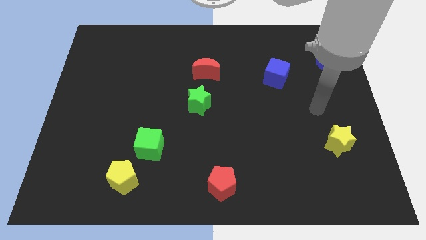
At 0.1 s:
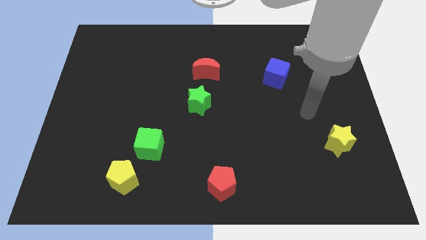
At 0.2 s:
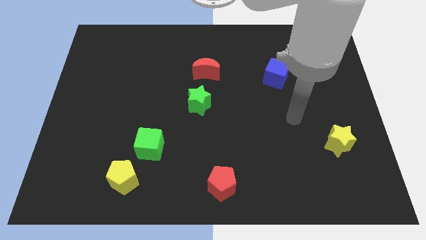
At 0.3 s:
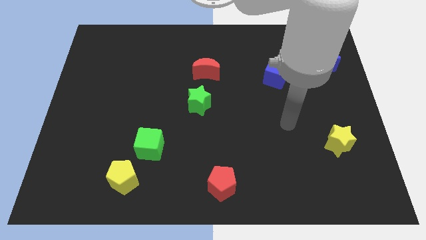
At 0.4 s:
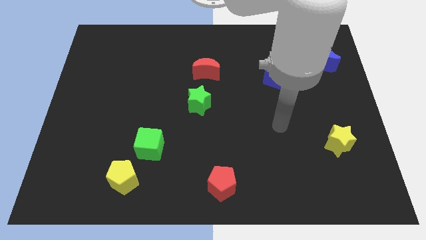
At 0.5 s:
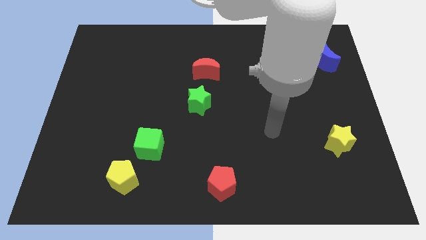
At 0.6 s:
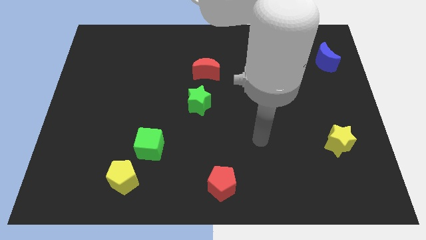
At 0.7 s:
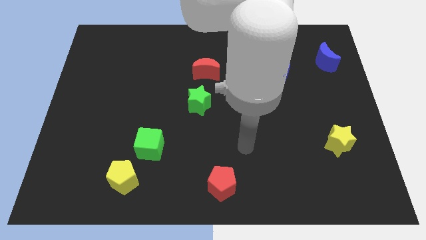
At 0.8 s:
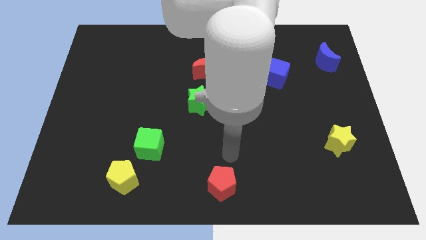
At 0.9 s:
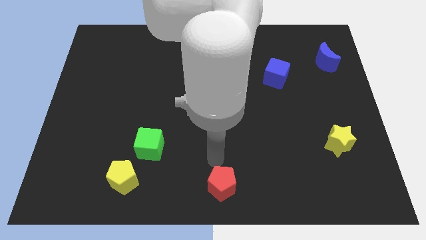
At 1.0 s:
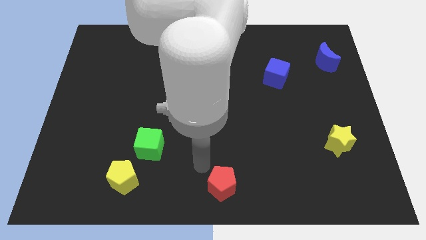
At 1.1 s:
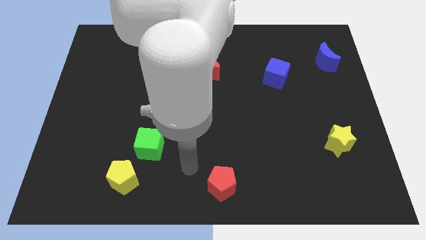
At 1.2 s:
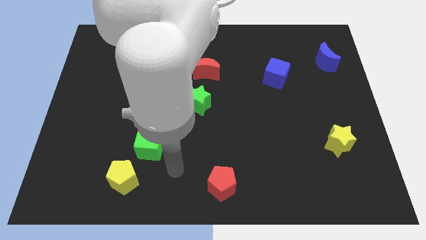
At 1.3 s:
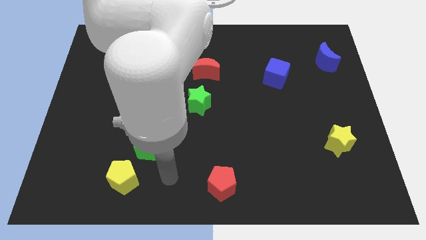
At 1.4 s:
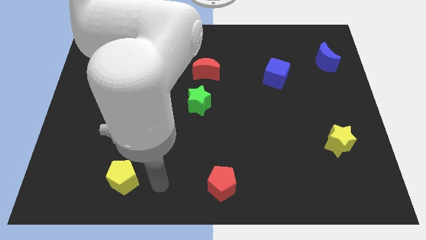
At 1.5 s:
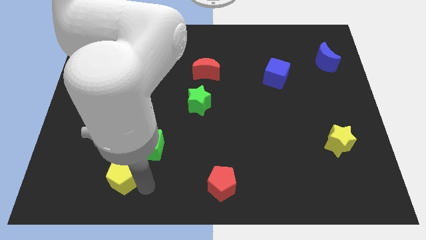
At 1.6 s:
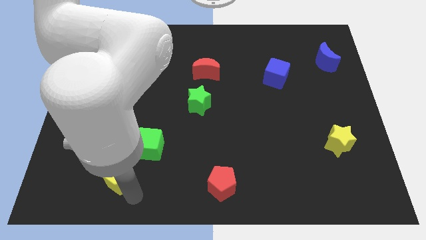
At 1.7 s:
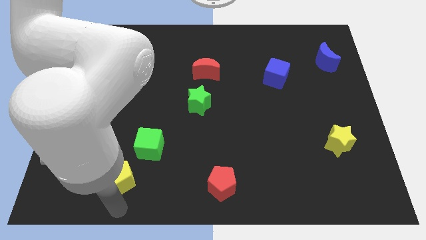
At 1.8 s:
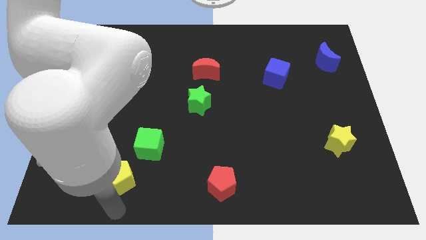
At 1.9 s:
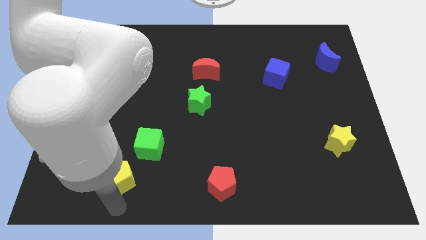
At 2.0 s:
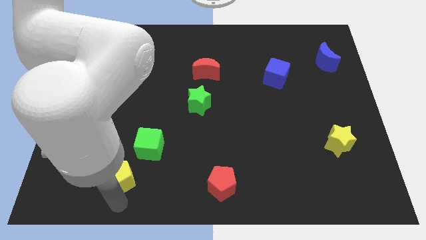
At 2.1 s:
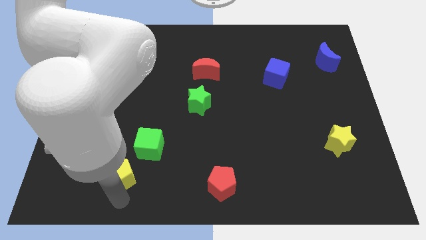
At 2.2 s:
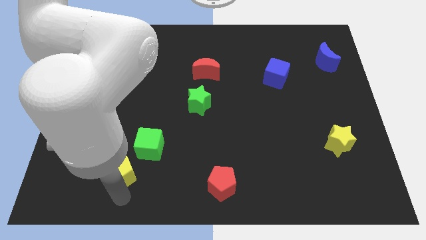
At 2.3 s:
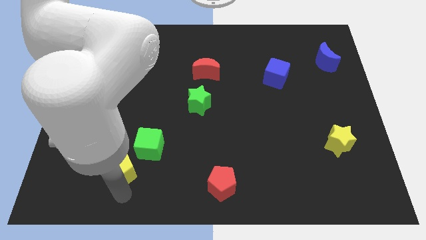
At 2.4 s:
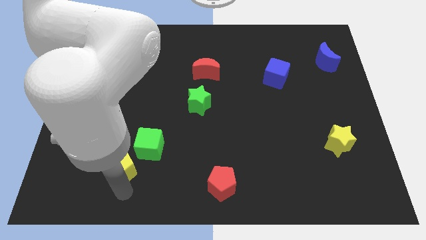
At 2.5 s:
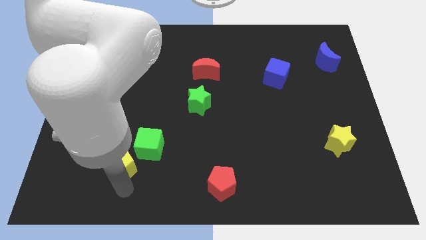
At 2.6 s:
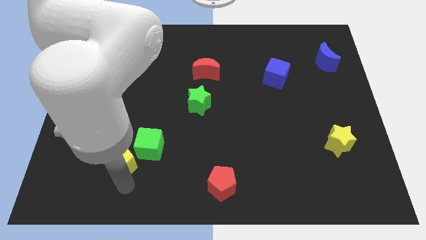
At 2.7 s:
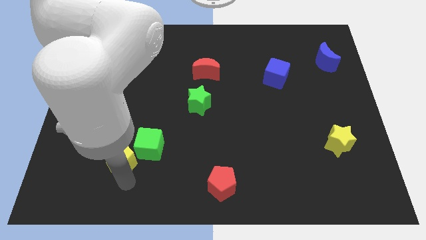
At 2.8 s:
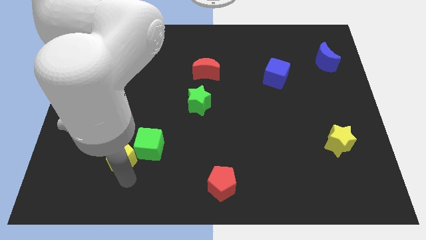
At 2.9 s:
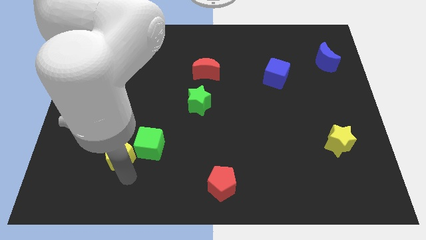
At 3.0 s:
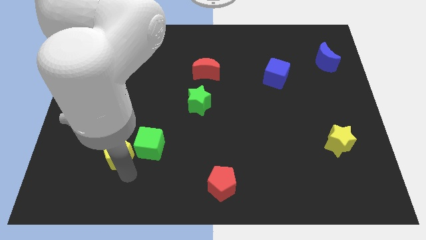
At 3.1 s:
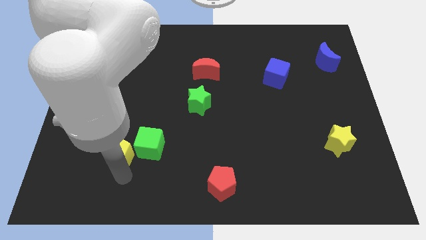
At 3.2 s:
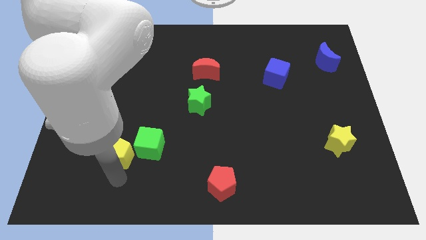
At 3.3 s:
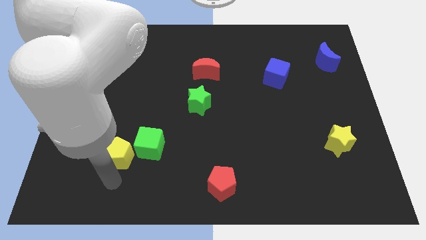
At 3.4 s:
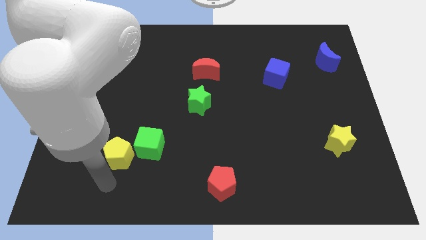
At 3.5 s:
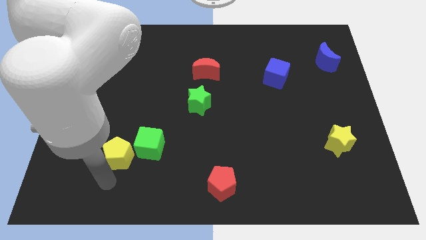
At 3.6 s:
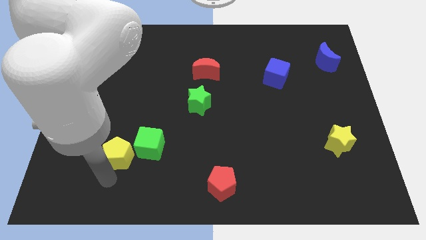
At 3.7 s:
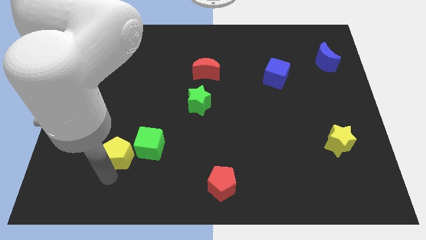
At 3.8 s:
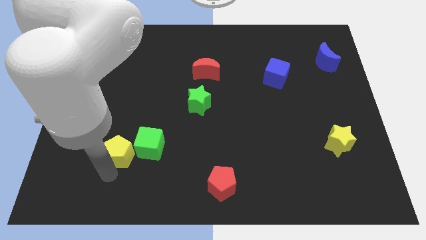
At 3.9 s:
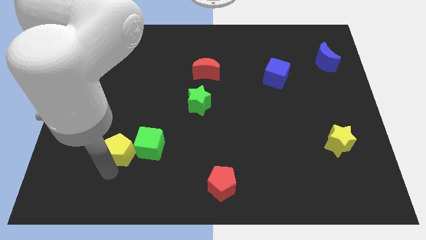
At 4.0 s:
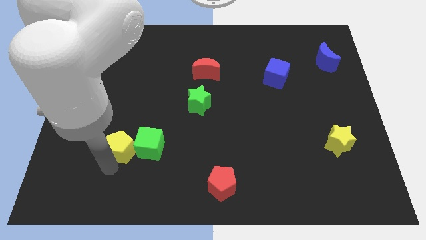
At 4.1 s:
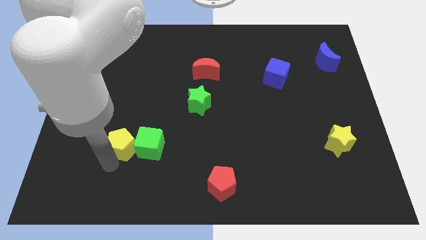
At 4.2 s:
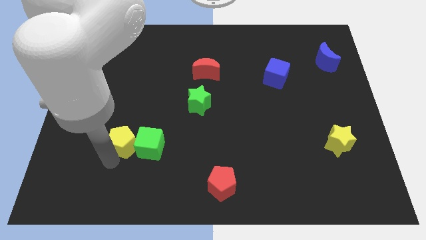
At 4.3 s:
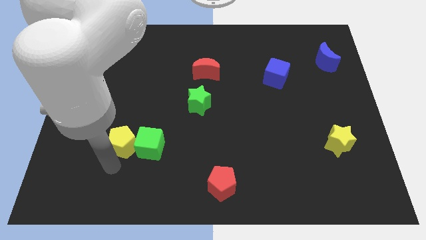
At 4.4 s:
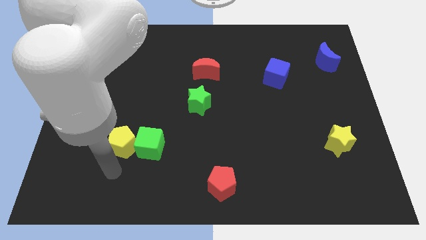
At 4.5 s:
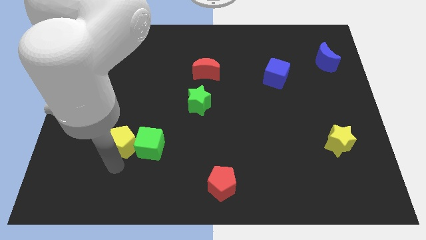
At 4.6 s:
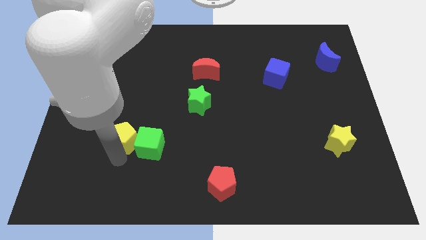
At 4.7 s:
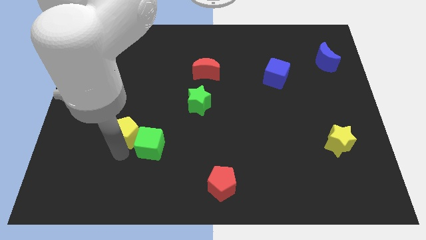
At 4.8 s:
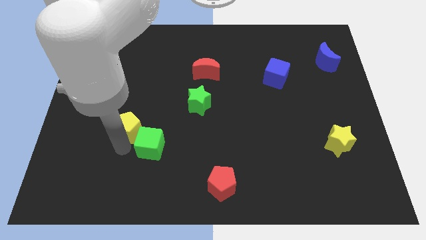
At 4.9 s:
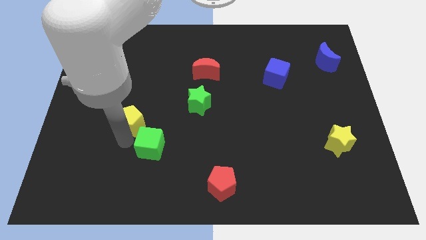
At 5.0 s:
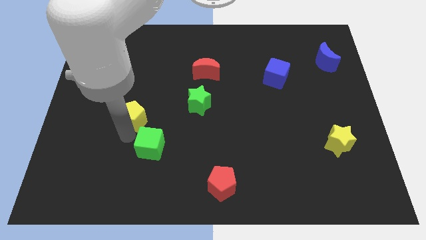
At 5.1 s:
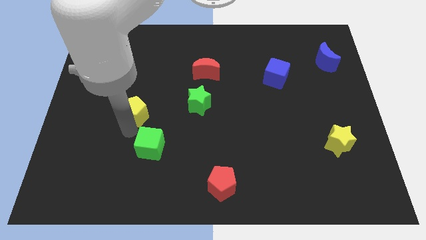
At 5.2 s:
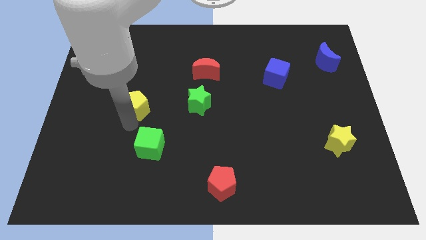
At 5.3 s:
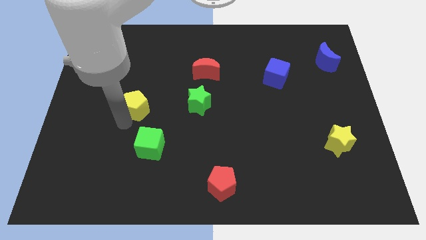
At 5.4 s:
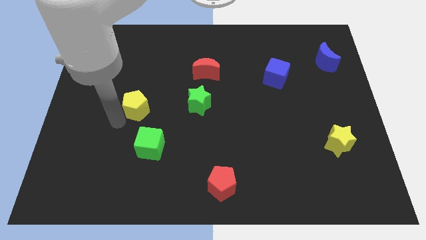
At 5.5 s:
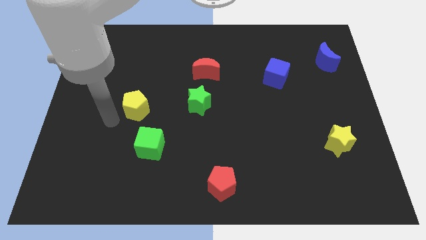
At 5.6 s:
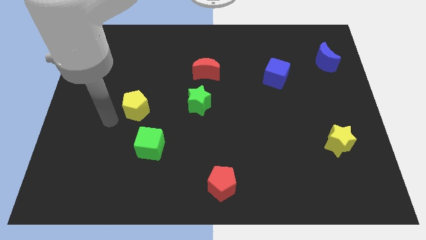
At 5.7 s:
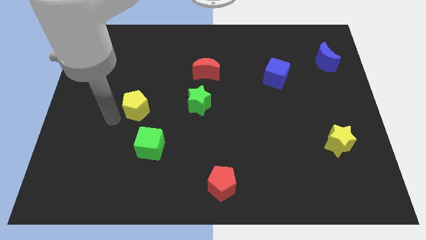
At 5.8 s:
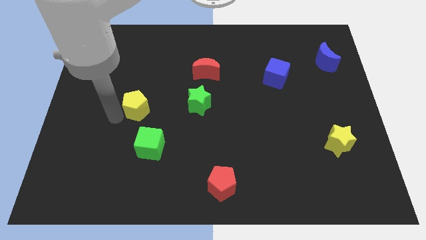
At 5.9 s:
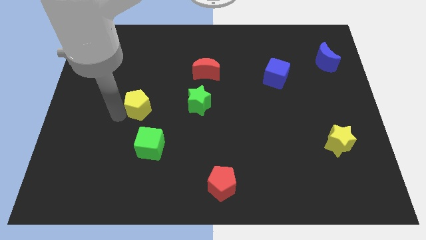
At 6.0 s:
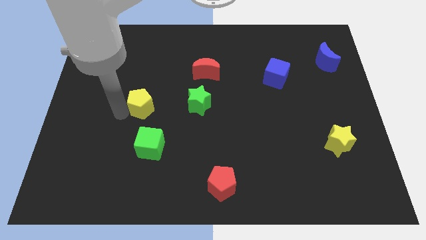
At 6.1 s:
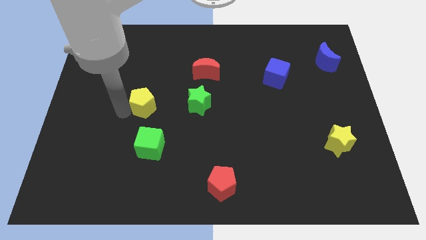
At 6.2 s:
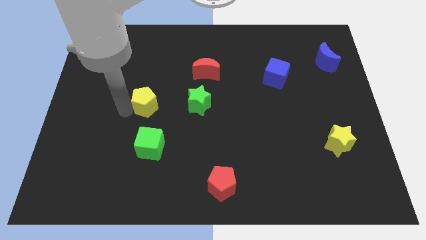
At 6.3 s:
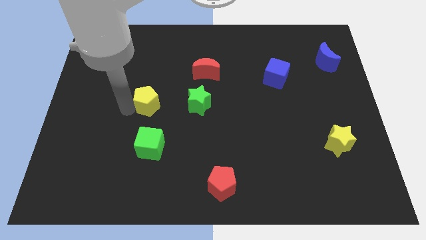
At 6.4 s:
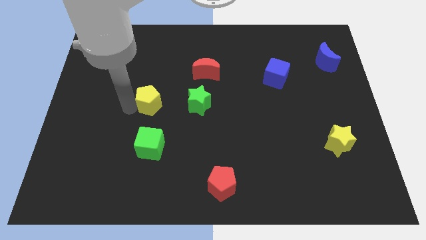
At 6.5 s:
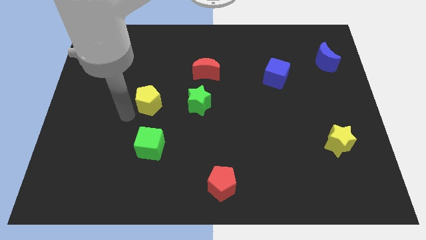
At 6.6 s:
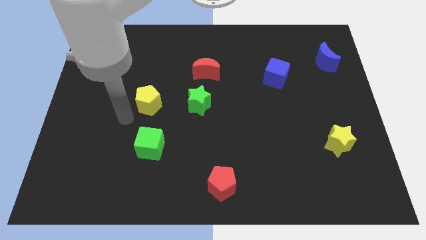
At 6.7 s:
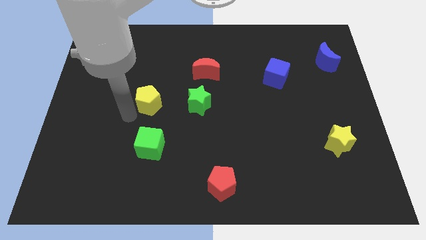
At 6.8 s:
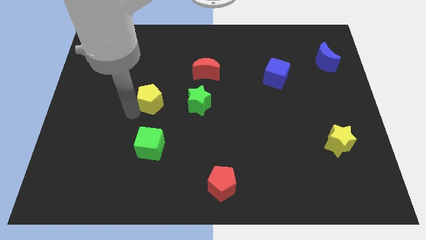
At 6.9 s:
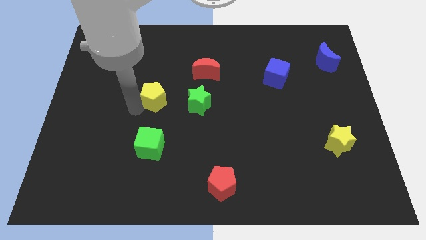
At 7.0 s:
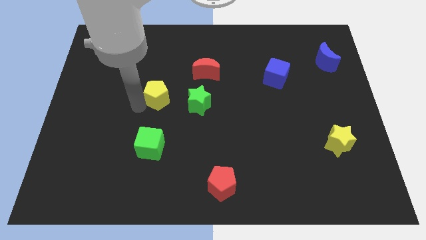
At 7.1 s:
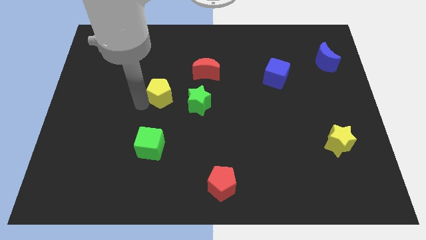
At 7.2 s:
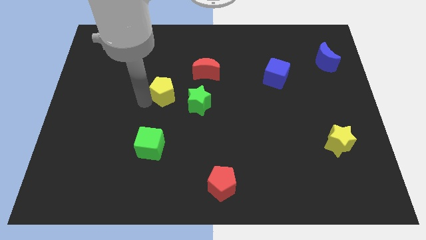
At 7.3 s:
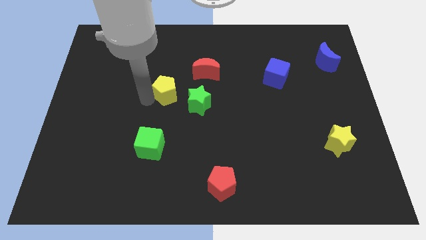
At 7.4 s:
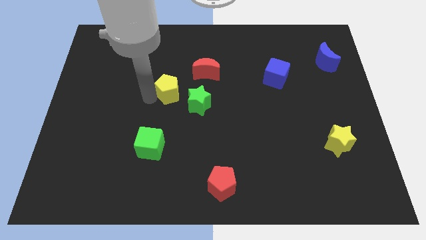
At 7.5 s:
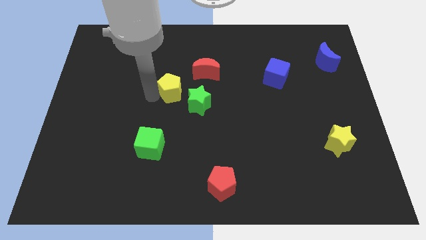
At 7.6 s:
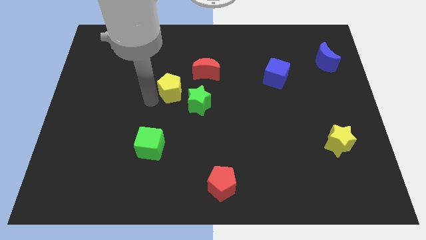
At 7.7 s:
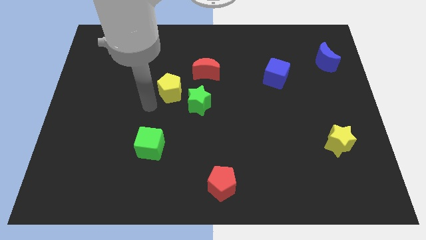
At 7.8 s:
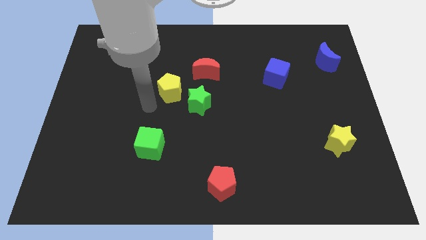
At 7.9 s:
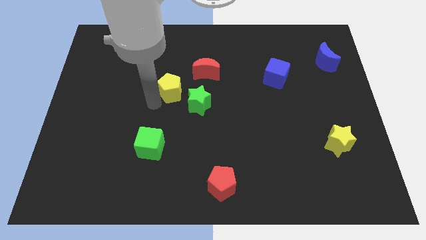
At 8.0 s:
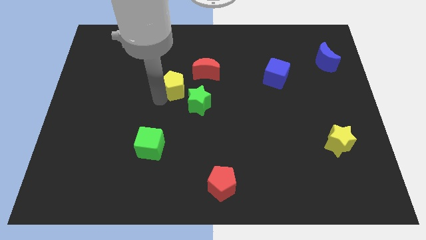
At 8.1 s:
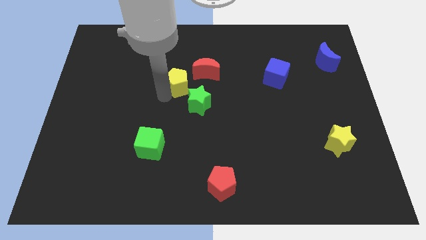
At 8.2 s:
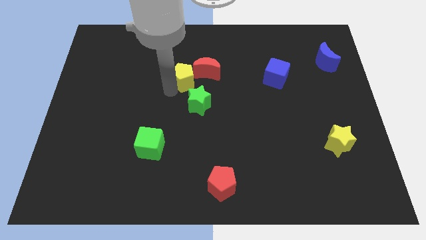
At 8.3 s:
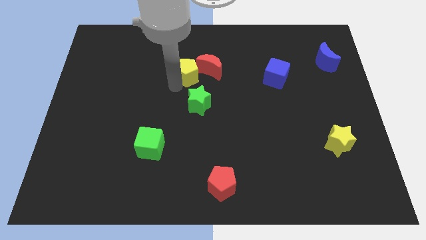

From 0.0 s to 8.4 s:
move the yellow pentagon close to the red moon
